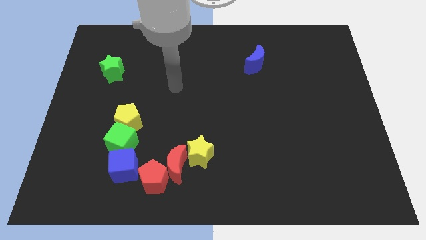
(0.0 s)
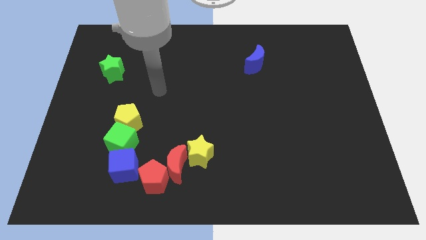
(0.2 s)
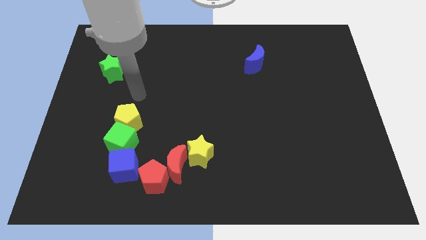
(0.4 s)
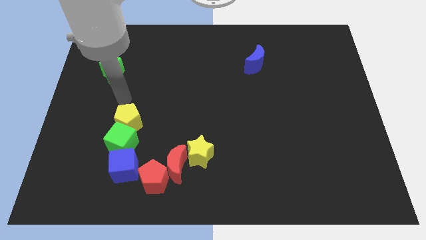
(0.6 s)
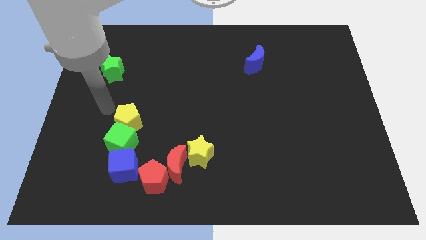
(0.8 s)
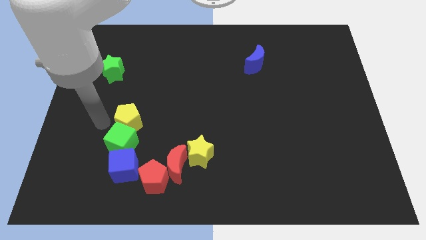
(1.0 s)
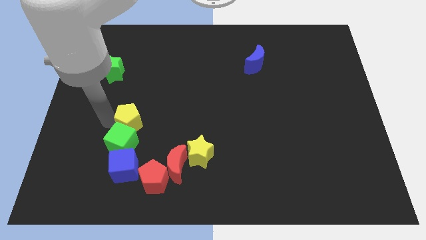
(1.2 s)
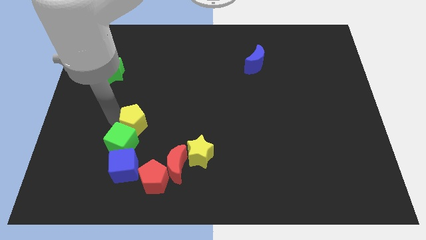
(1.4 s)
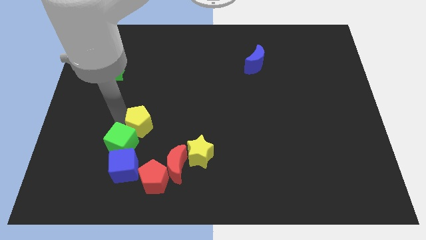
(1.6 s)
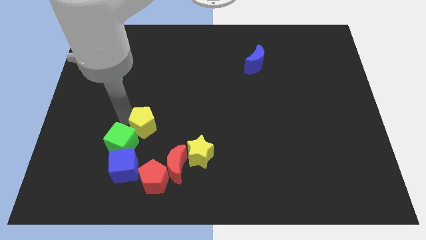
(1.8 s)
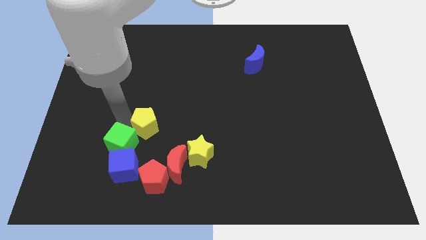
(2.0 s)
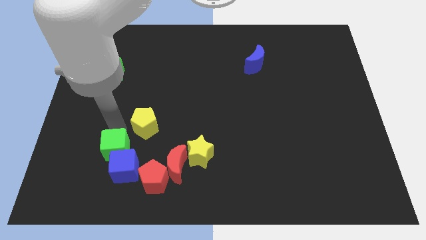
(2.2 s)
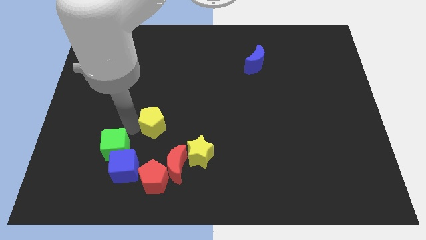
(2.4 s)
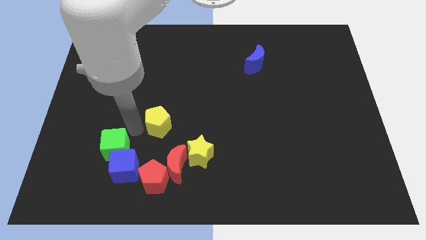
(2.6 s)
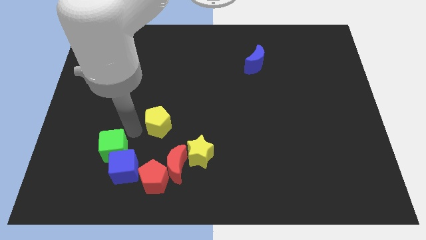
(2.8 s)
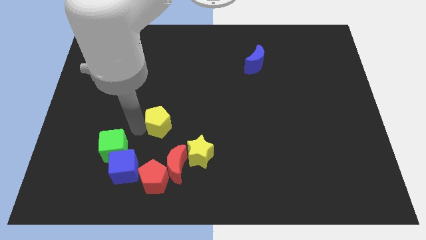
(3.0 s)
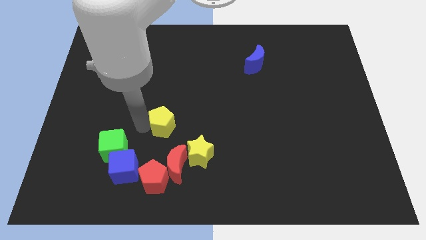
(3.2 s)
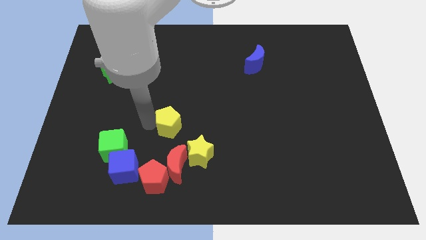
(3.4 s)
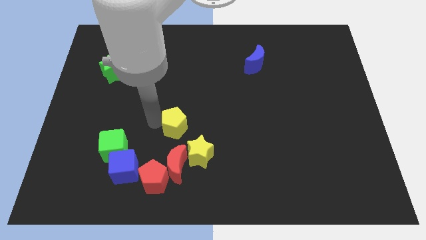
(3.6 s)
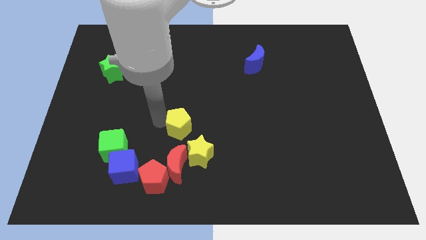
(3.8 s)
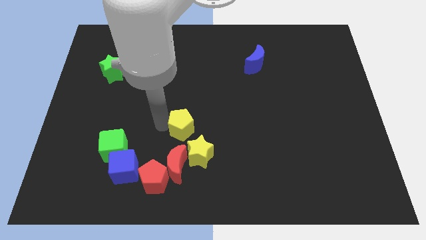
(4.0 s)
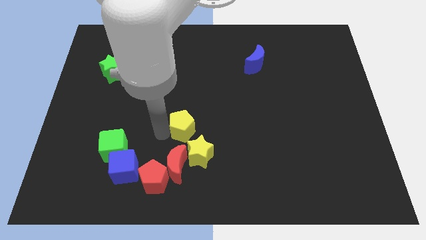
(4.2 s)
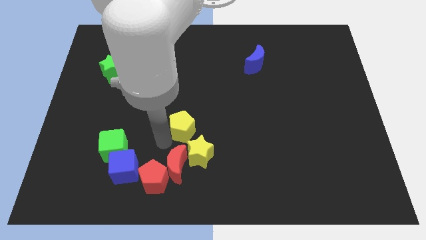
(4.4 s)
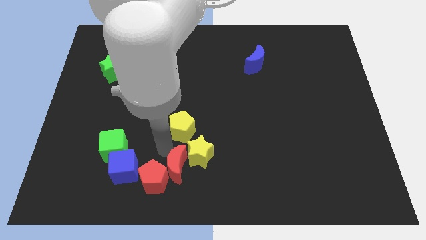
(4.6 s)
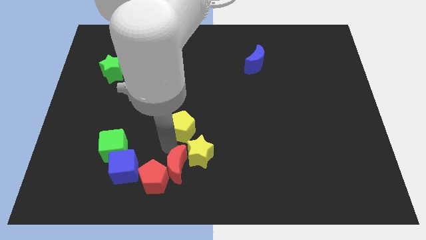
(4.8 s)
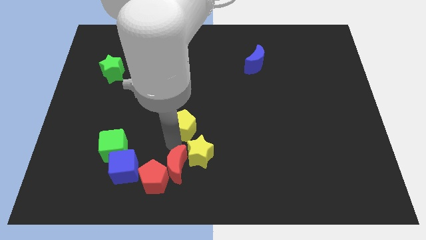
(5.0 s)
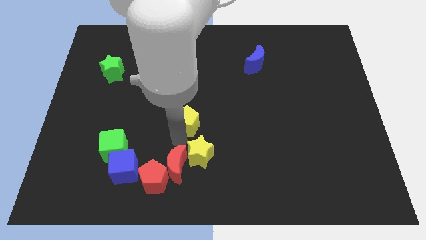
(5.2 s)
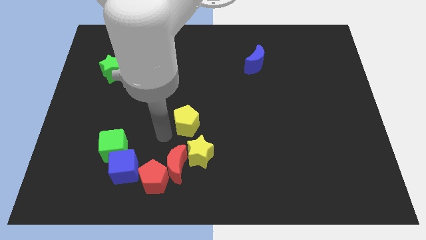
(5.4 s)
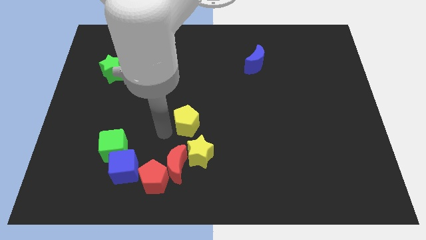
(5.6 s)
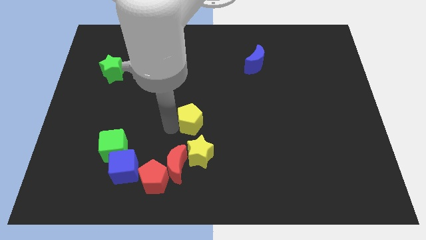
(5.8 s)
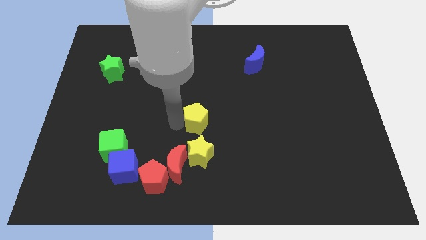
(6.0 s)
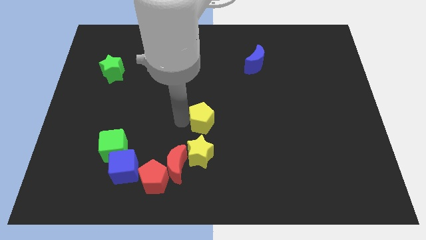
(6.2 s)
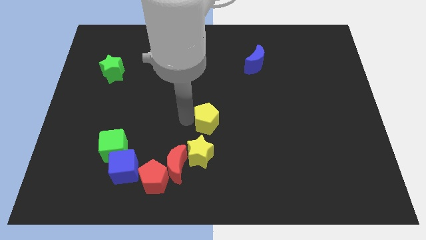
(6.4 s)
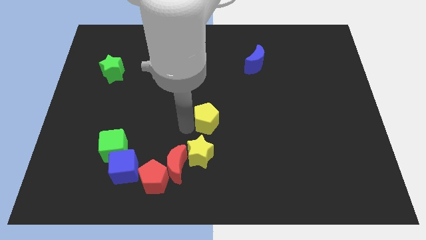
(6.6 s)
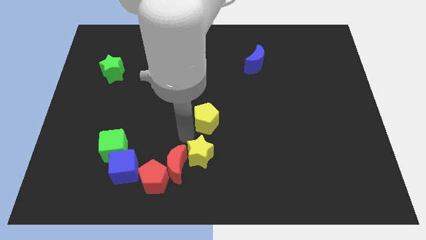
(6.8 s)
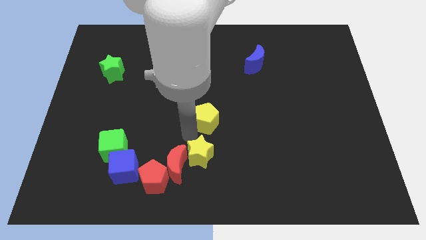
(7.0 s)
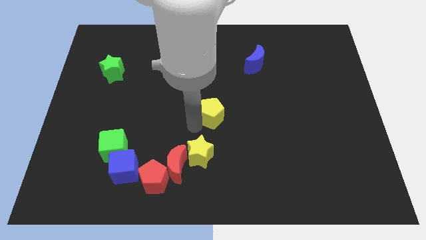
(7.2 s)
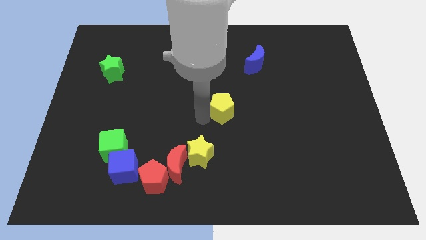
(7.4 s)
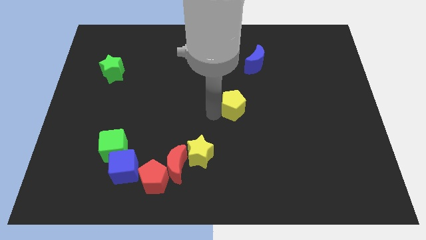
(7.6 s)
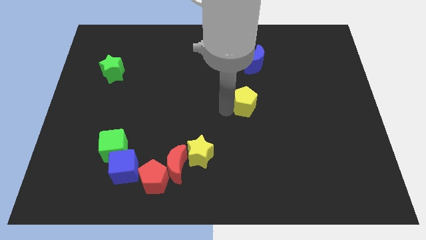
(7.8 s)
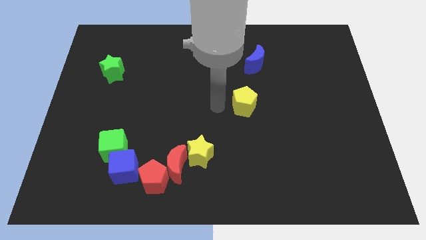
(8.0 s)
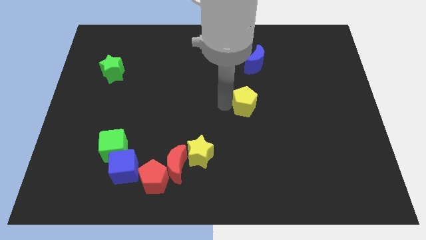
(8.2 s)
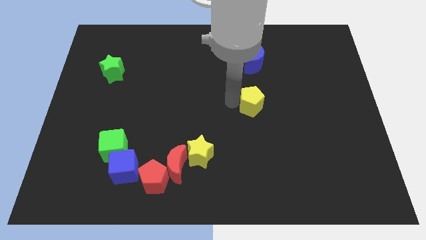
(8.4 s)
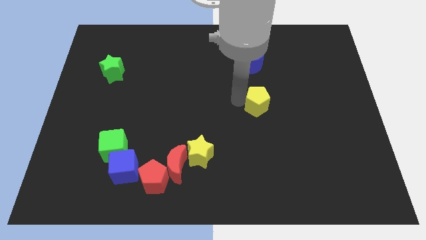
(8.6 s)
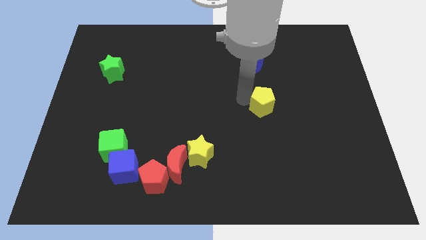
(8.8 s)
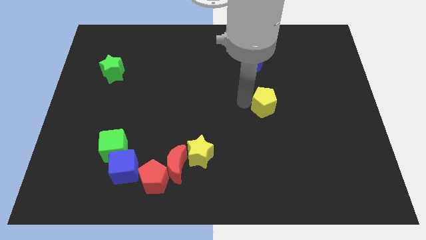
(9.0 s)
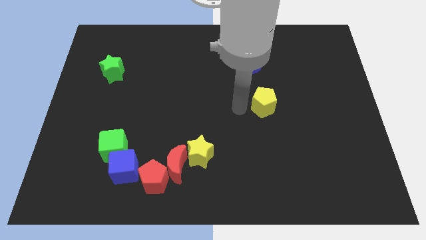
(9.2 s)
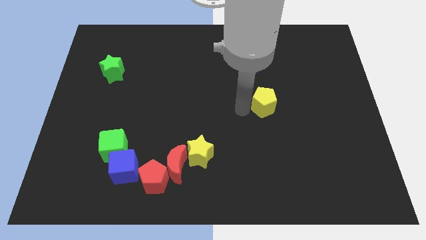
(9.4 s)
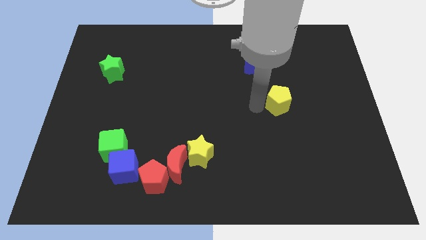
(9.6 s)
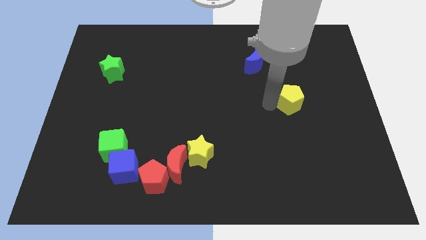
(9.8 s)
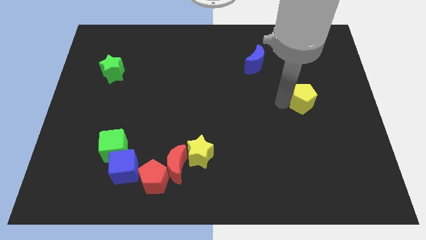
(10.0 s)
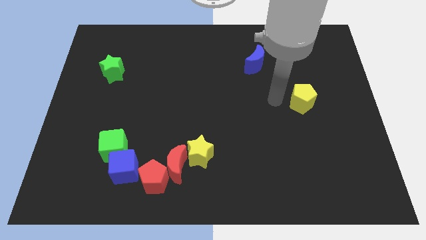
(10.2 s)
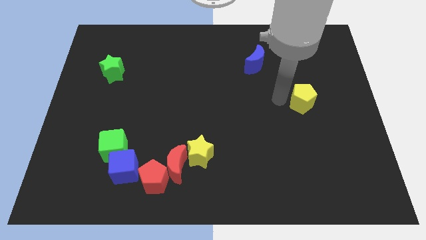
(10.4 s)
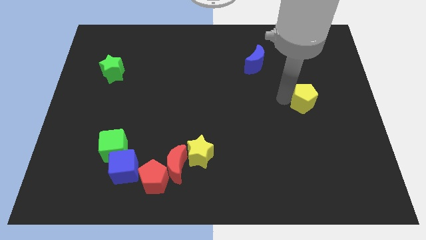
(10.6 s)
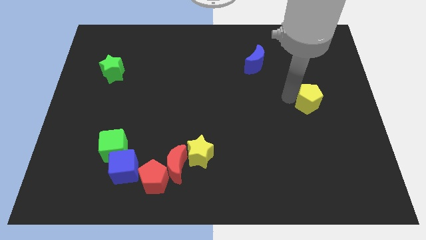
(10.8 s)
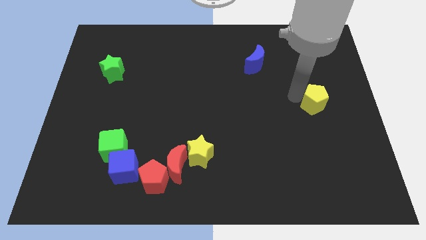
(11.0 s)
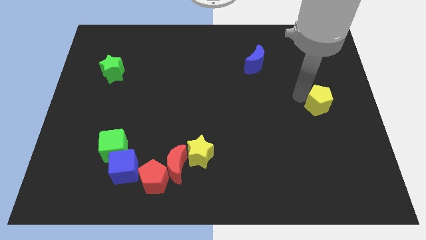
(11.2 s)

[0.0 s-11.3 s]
slide the yellow pentagon to the right side of the board
